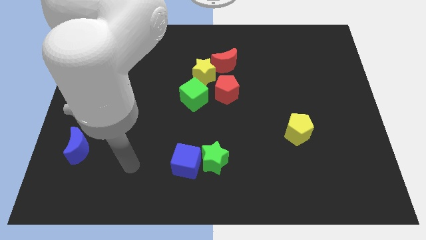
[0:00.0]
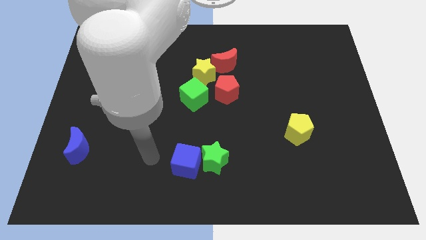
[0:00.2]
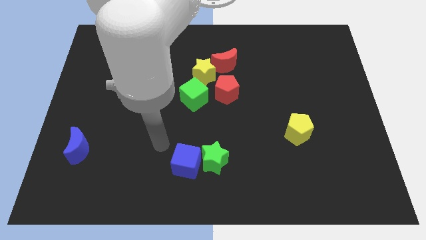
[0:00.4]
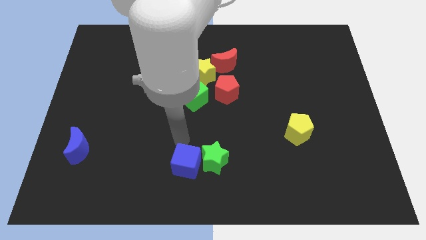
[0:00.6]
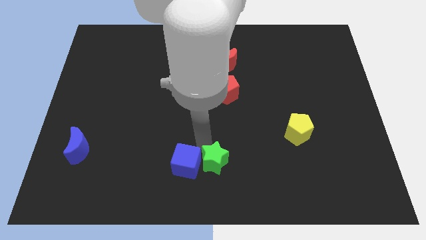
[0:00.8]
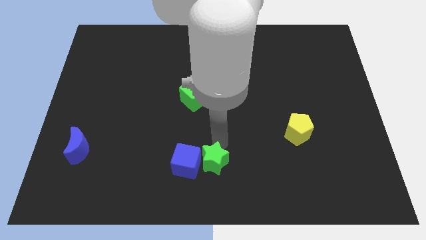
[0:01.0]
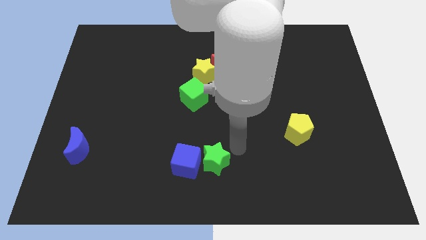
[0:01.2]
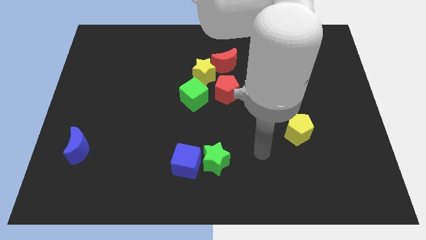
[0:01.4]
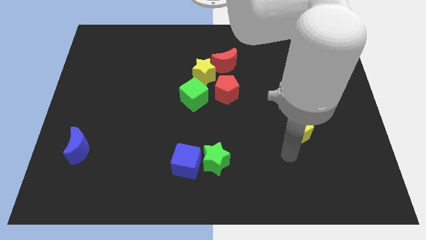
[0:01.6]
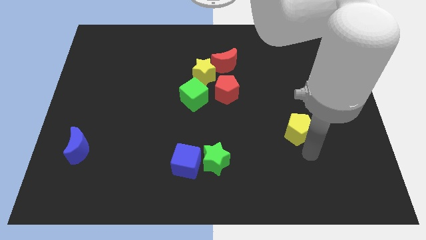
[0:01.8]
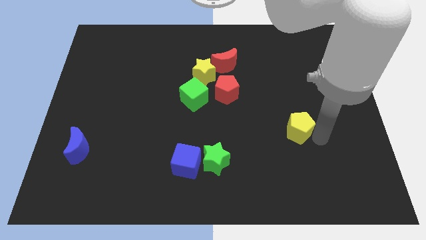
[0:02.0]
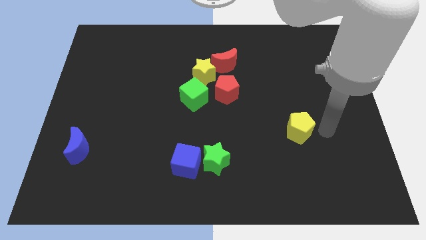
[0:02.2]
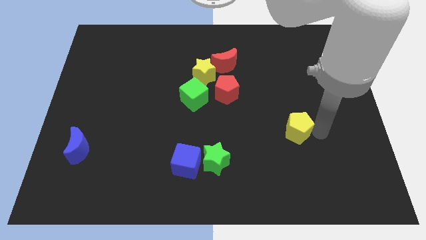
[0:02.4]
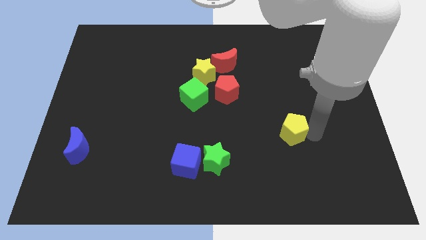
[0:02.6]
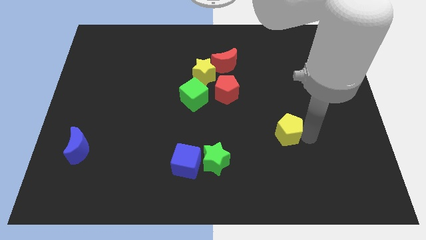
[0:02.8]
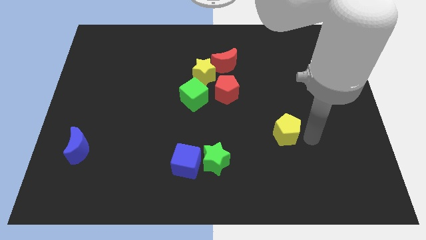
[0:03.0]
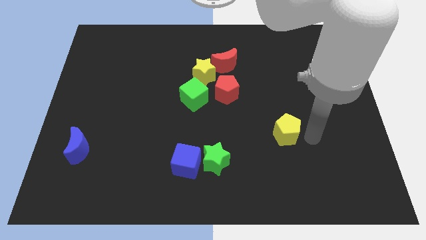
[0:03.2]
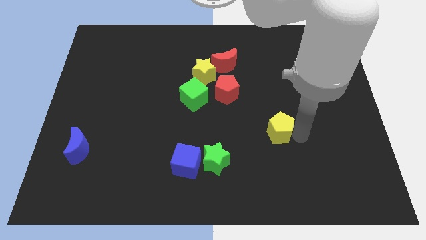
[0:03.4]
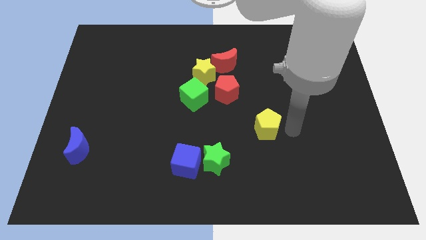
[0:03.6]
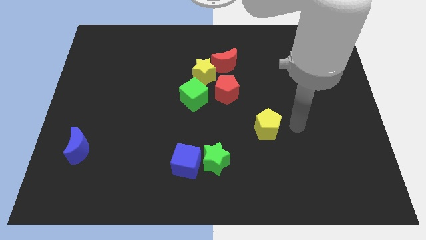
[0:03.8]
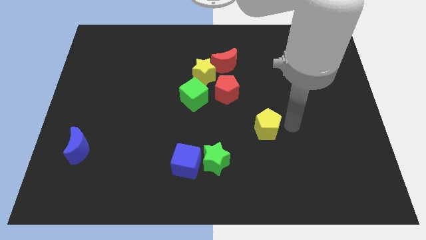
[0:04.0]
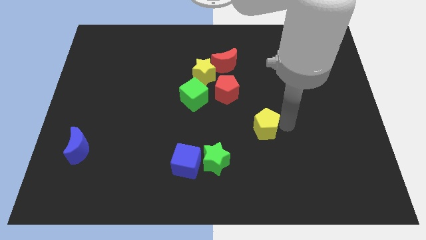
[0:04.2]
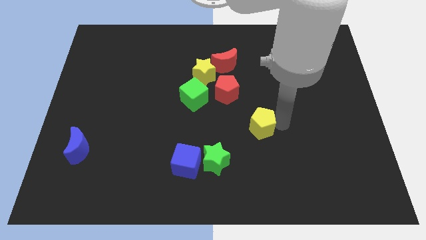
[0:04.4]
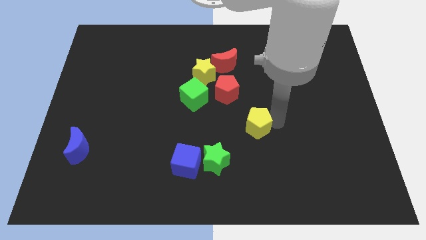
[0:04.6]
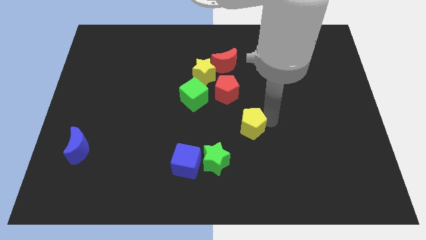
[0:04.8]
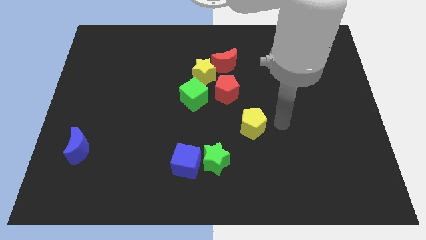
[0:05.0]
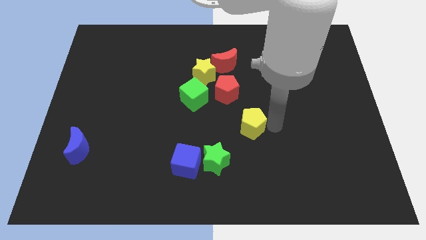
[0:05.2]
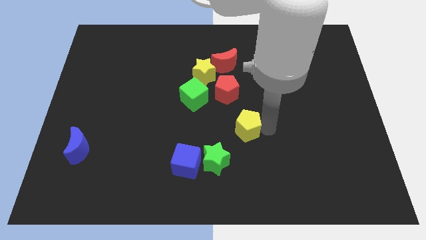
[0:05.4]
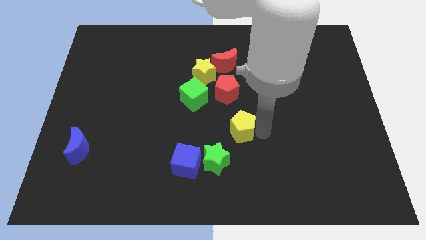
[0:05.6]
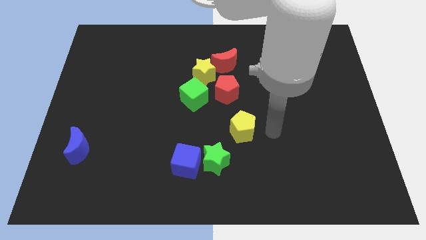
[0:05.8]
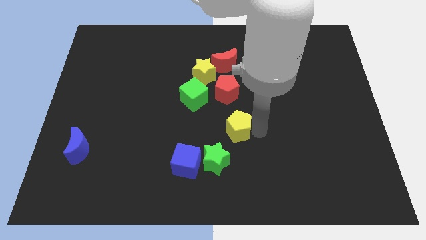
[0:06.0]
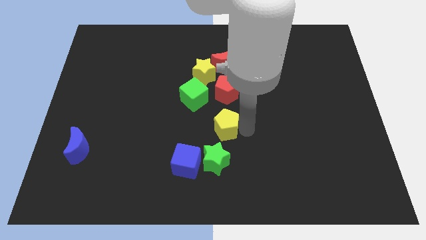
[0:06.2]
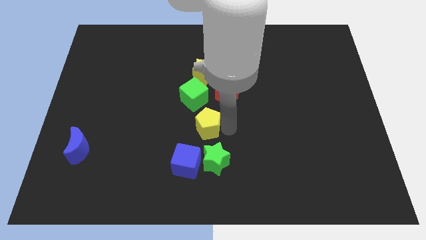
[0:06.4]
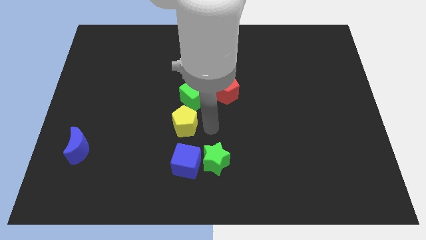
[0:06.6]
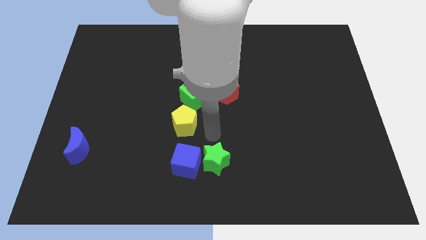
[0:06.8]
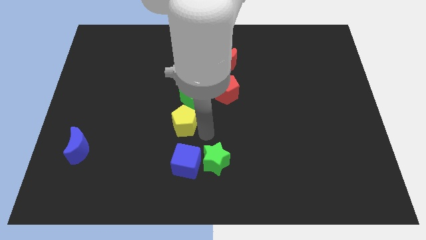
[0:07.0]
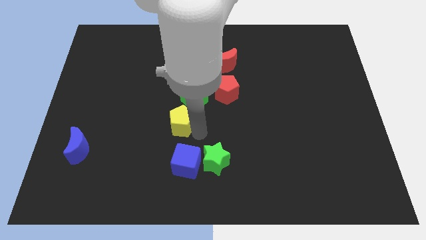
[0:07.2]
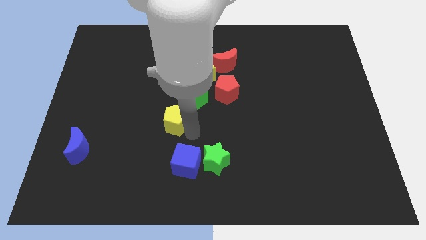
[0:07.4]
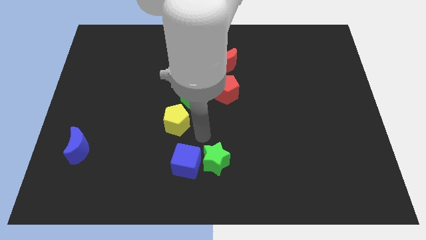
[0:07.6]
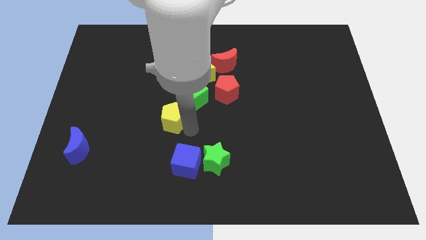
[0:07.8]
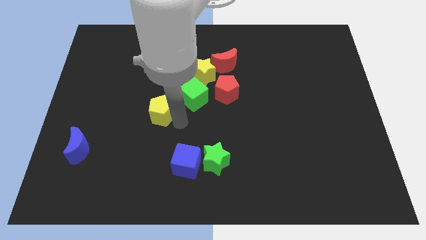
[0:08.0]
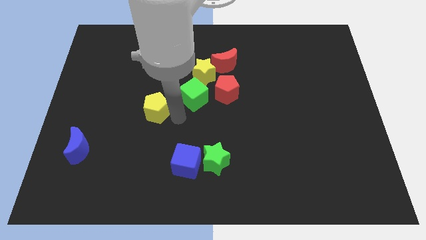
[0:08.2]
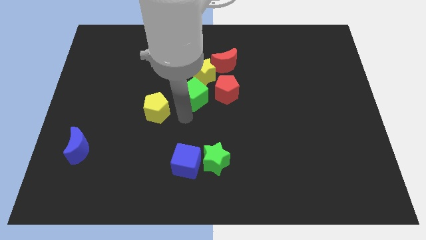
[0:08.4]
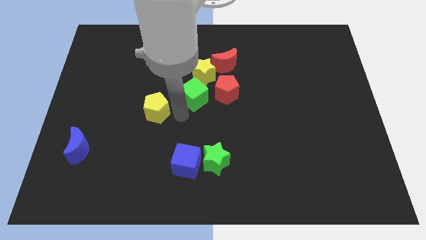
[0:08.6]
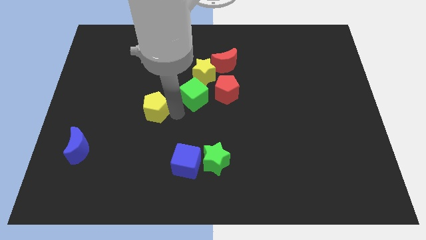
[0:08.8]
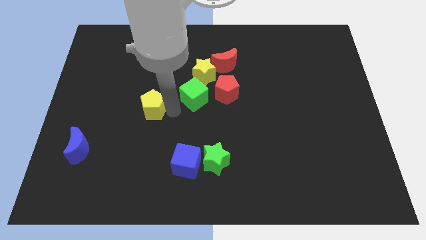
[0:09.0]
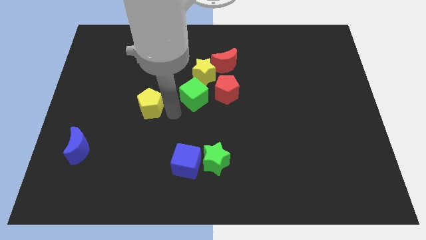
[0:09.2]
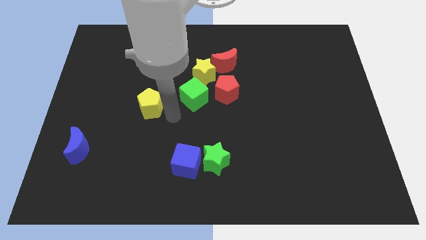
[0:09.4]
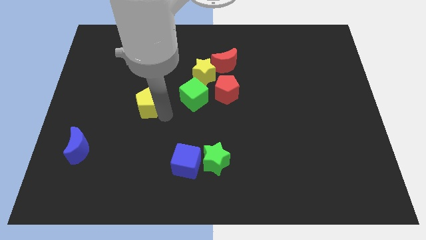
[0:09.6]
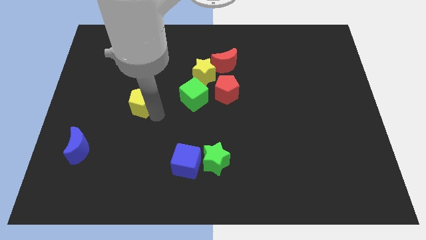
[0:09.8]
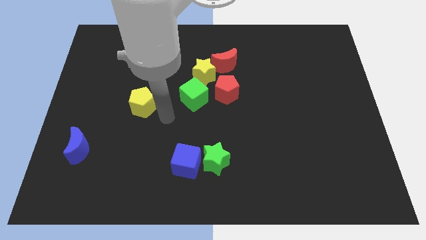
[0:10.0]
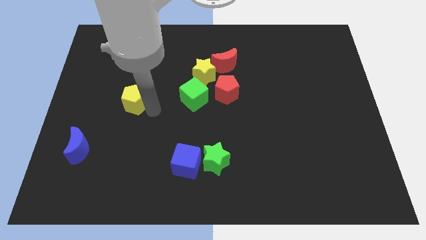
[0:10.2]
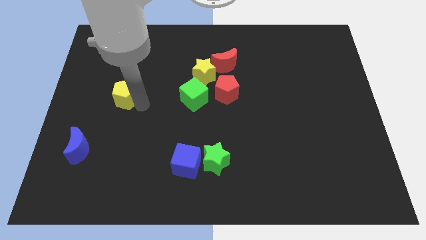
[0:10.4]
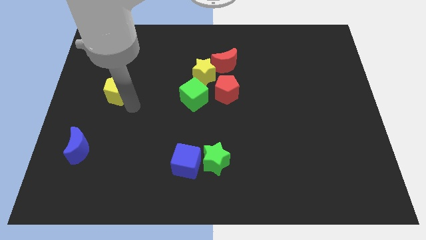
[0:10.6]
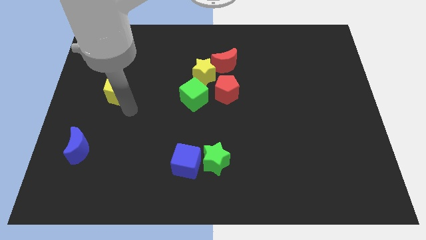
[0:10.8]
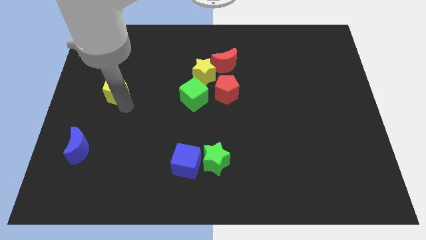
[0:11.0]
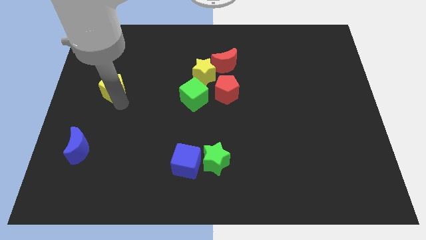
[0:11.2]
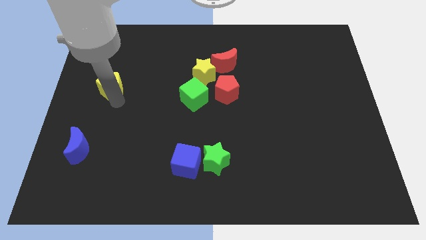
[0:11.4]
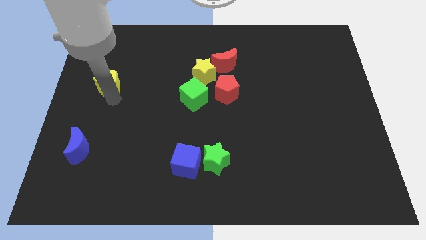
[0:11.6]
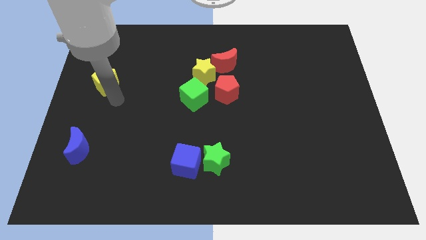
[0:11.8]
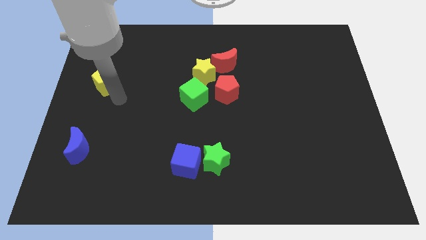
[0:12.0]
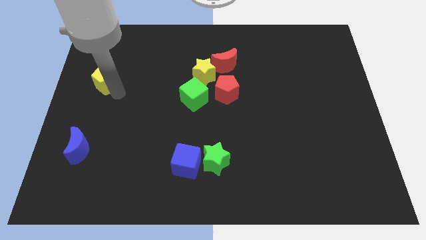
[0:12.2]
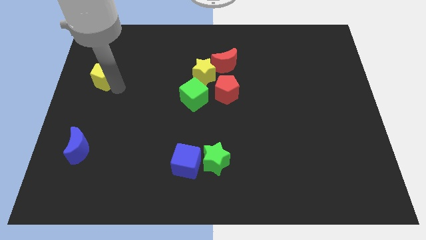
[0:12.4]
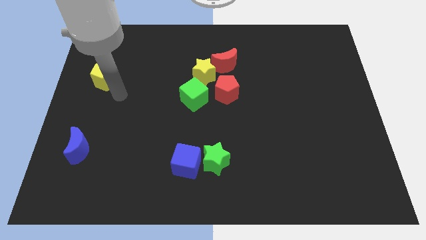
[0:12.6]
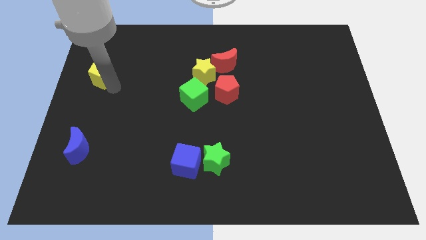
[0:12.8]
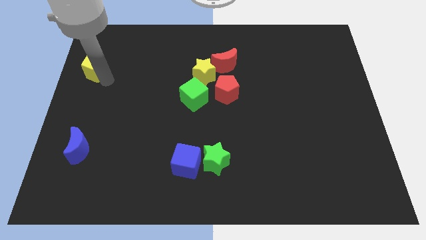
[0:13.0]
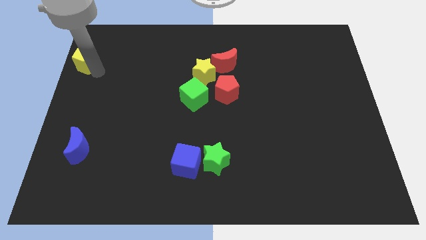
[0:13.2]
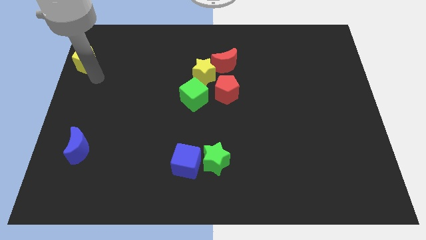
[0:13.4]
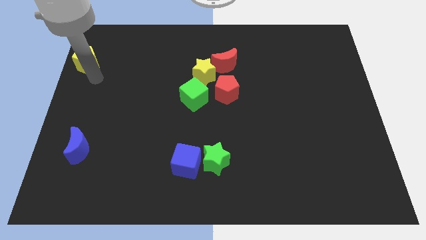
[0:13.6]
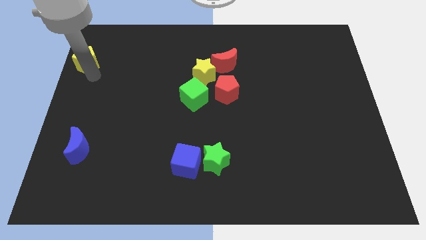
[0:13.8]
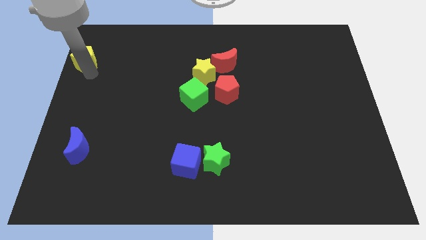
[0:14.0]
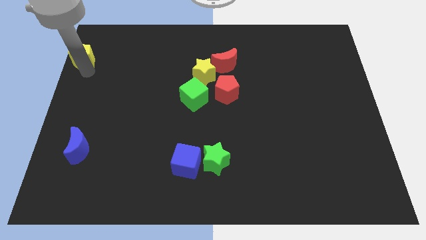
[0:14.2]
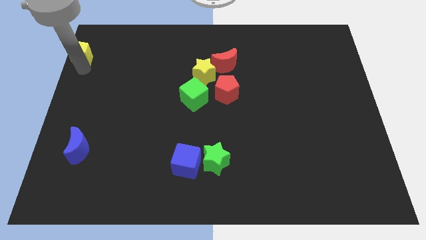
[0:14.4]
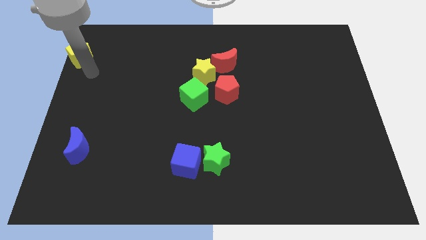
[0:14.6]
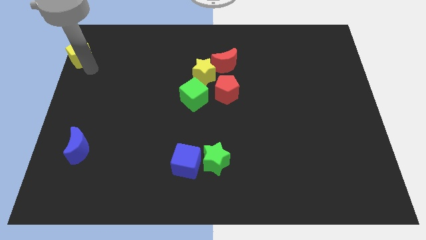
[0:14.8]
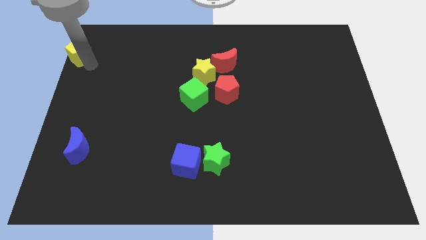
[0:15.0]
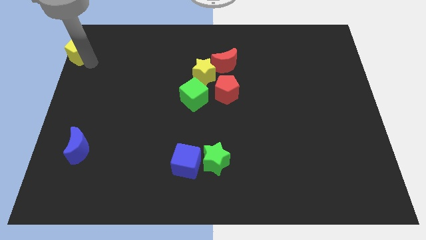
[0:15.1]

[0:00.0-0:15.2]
put the yellow pentagon to the upper left corner
